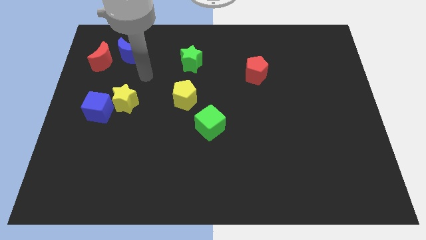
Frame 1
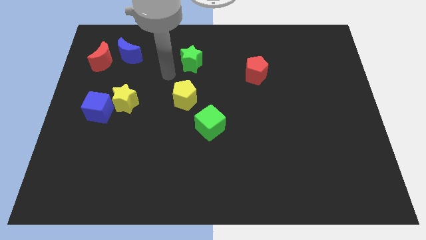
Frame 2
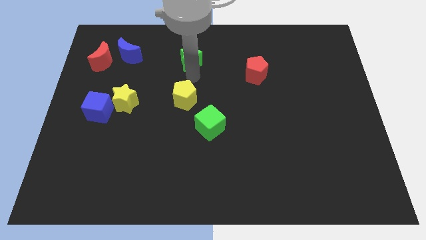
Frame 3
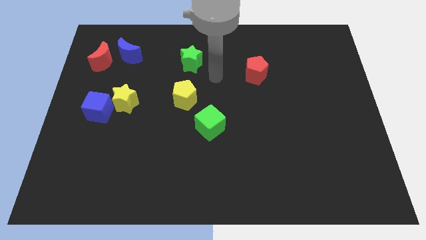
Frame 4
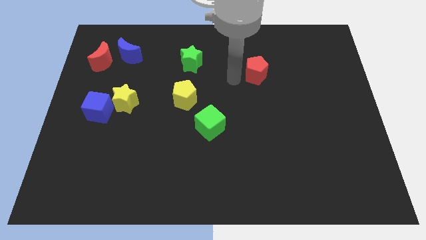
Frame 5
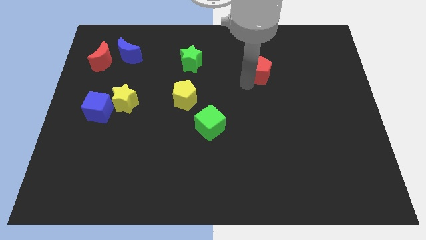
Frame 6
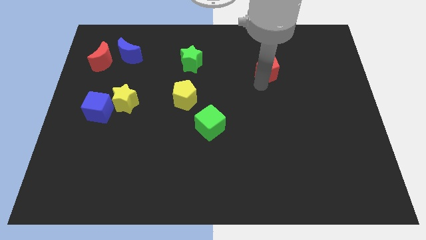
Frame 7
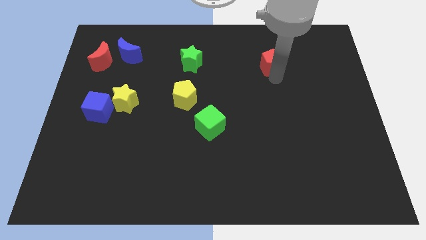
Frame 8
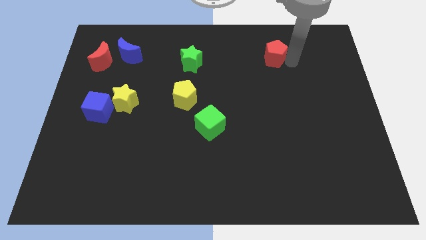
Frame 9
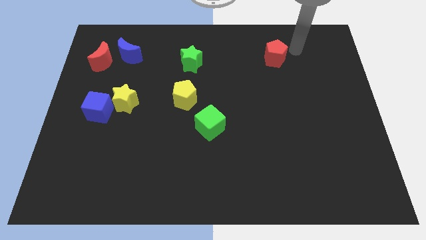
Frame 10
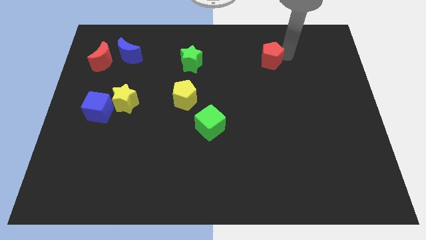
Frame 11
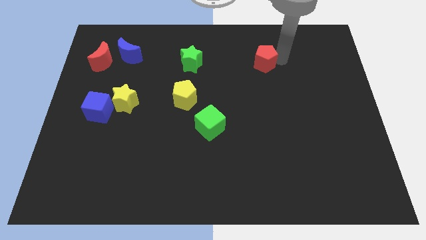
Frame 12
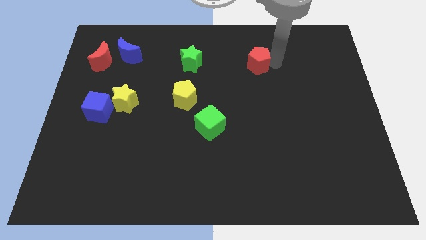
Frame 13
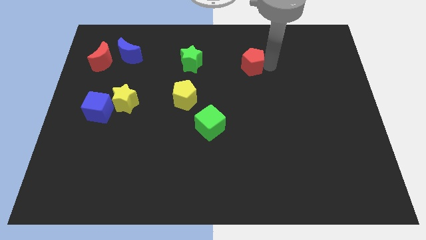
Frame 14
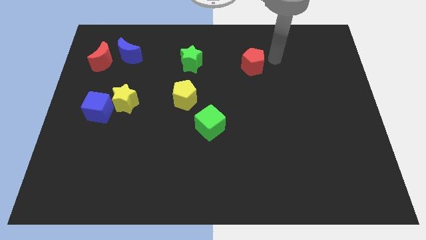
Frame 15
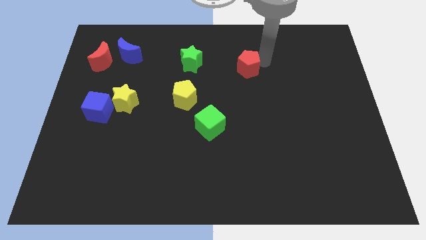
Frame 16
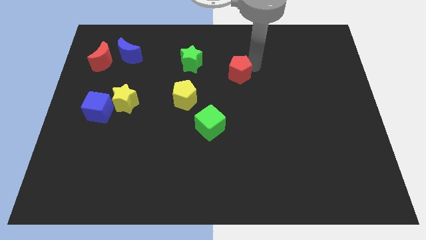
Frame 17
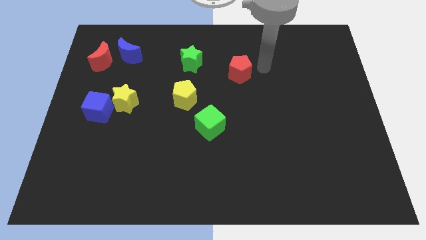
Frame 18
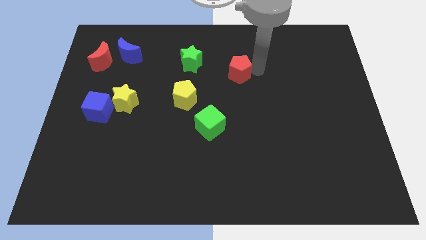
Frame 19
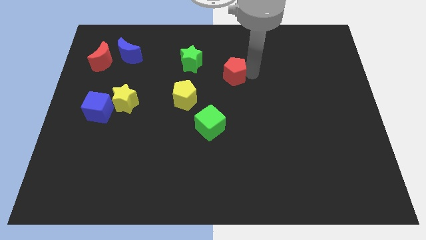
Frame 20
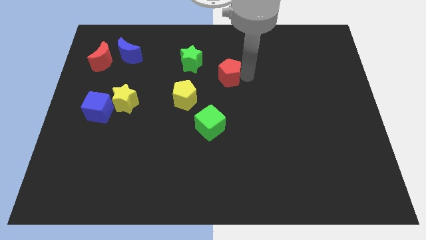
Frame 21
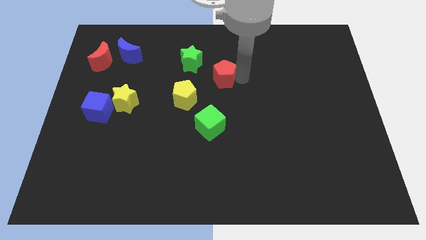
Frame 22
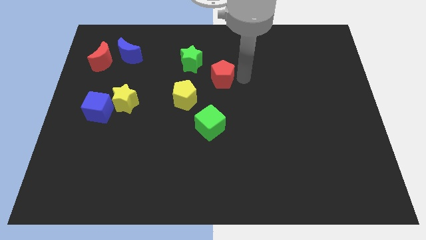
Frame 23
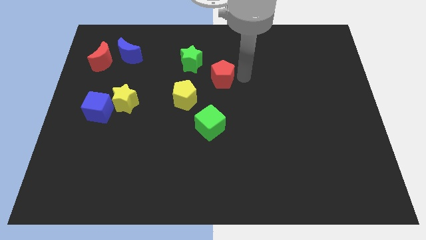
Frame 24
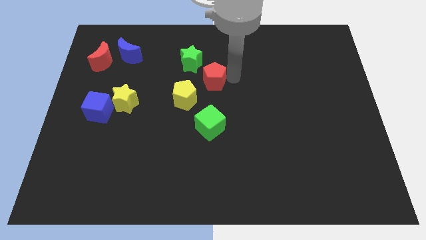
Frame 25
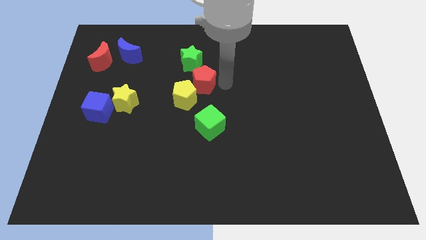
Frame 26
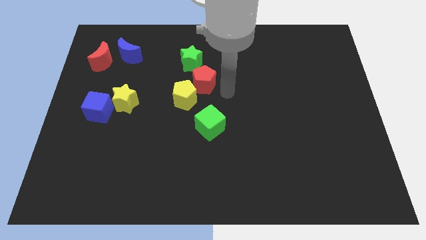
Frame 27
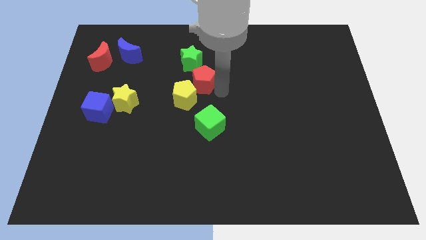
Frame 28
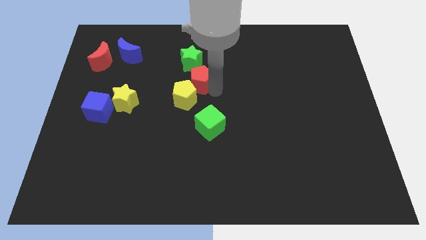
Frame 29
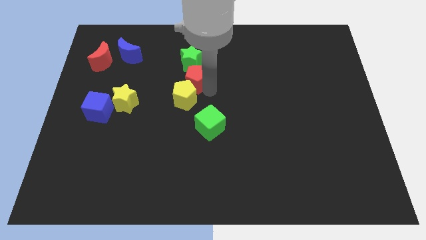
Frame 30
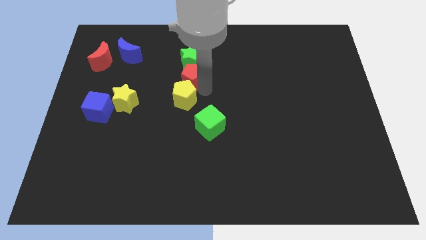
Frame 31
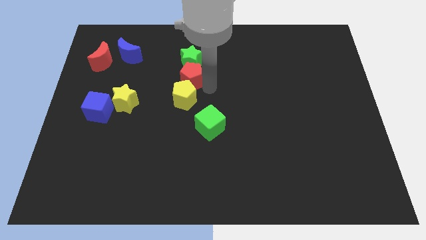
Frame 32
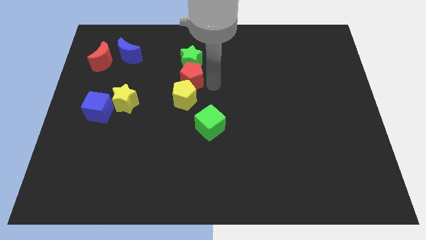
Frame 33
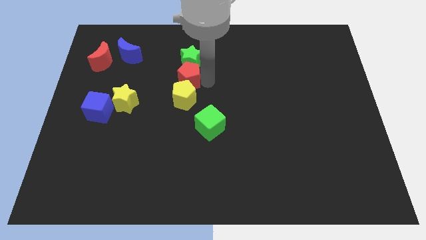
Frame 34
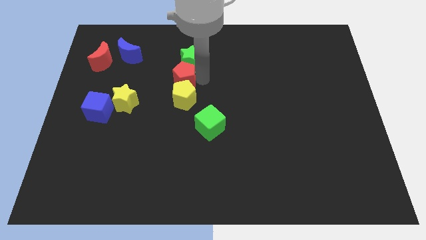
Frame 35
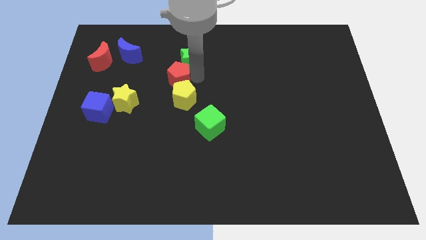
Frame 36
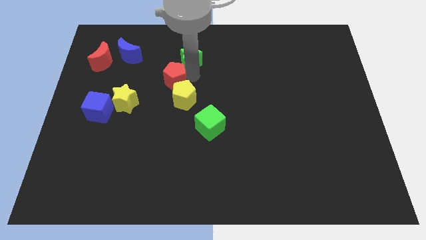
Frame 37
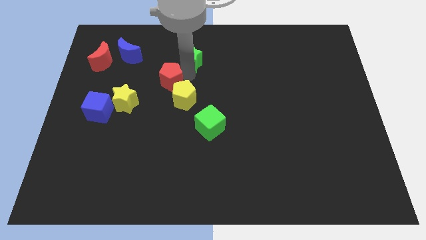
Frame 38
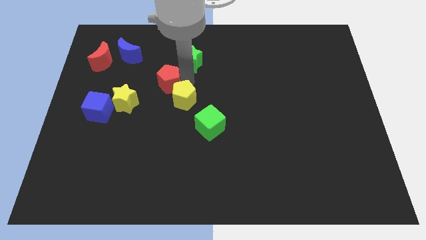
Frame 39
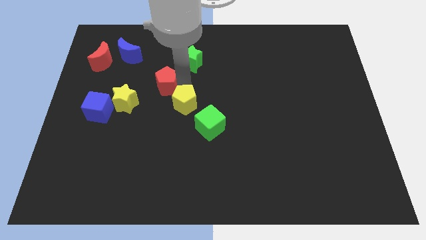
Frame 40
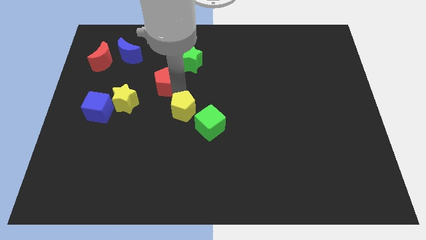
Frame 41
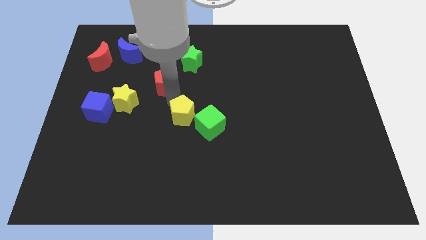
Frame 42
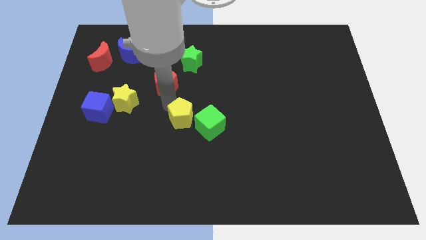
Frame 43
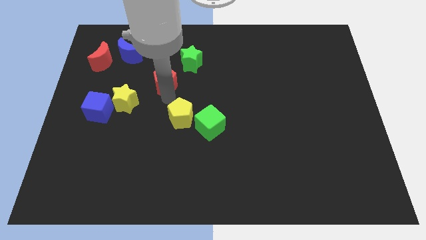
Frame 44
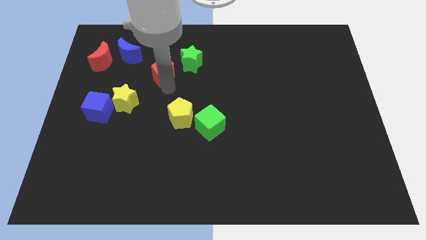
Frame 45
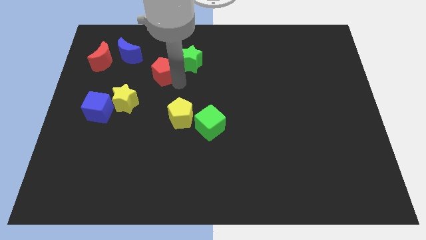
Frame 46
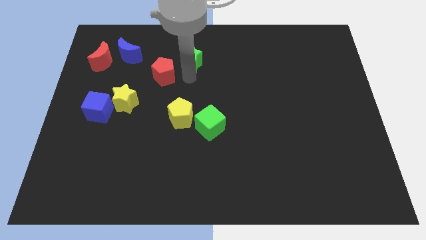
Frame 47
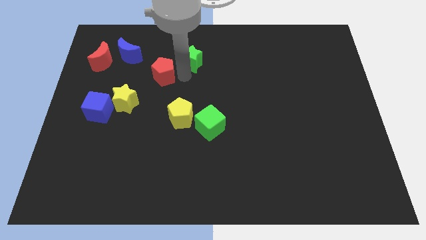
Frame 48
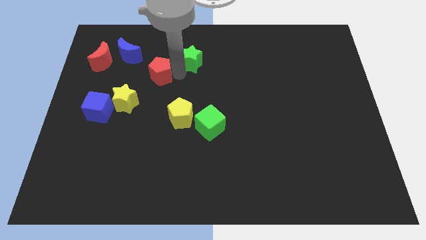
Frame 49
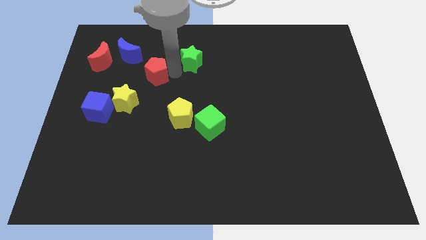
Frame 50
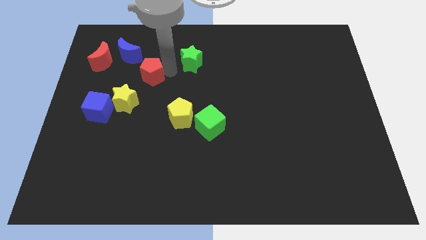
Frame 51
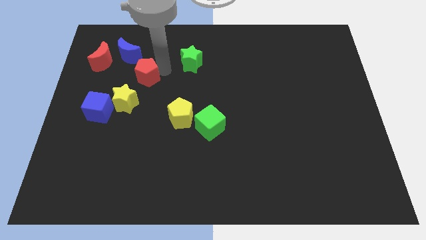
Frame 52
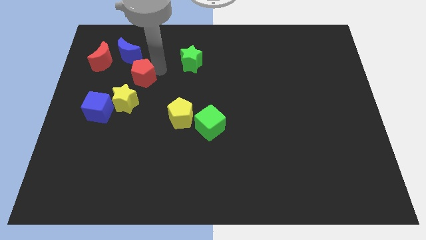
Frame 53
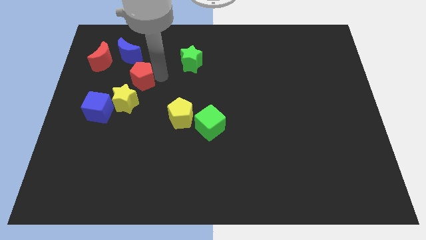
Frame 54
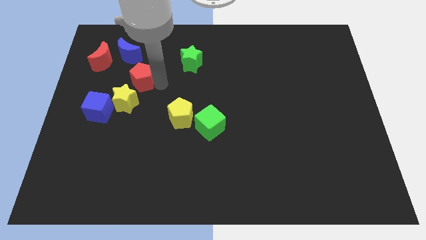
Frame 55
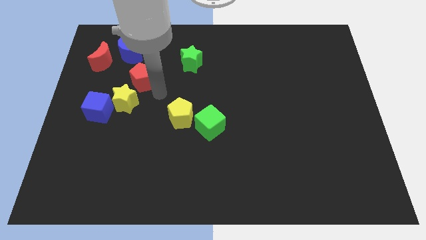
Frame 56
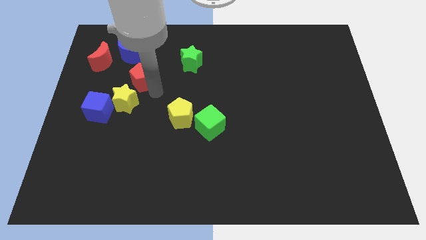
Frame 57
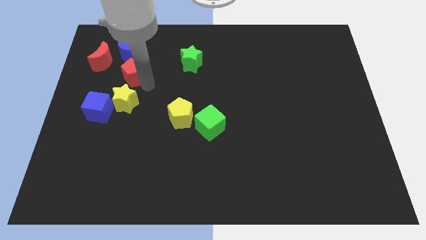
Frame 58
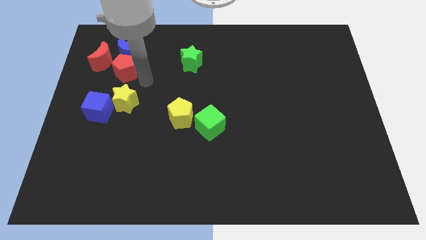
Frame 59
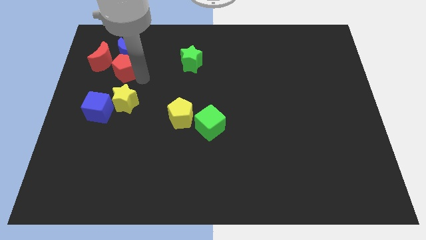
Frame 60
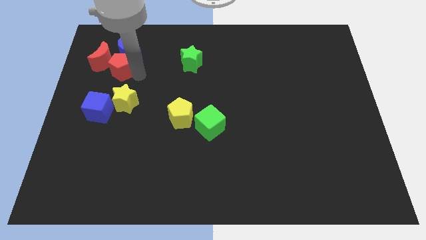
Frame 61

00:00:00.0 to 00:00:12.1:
push the red pentagon towards the red moon
